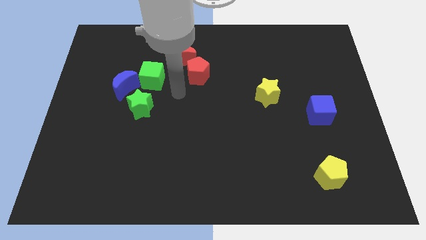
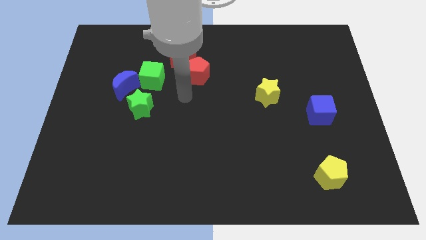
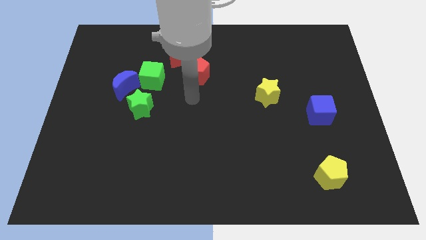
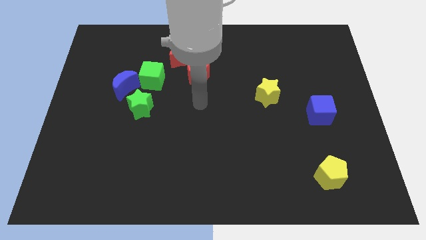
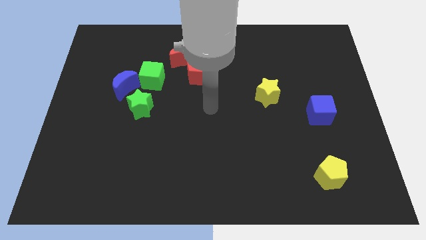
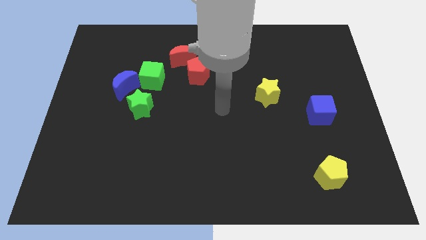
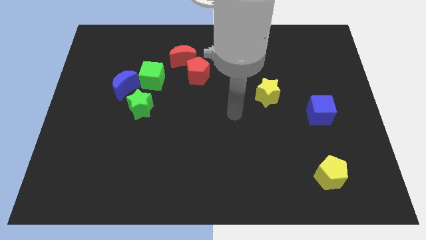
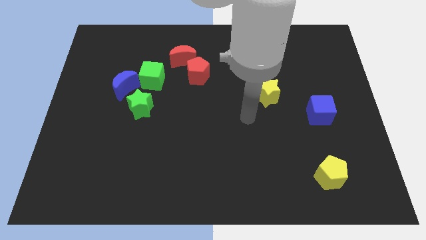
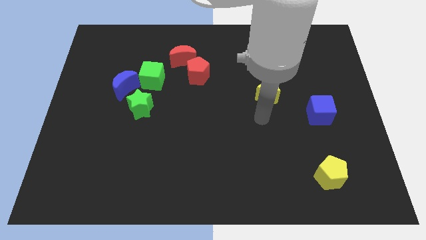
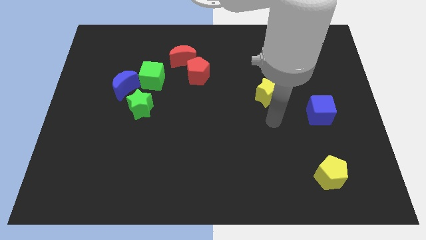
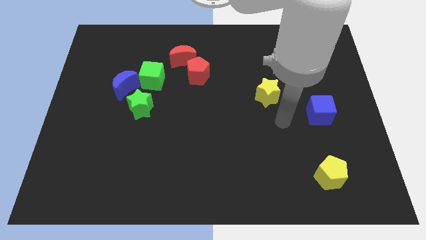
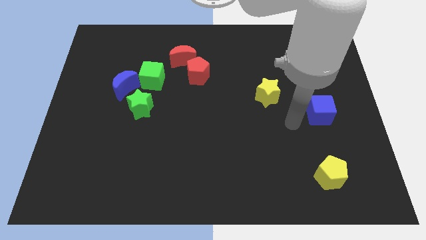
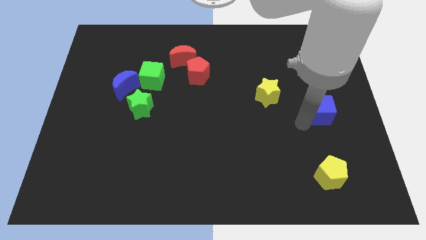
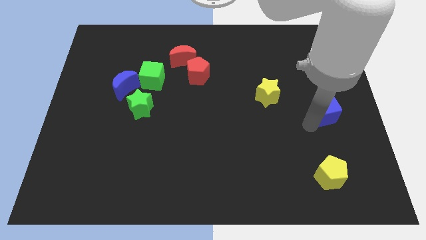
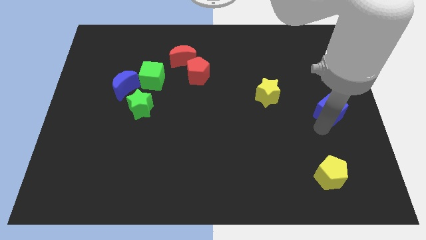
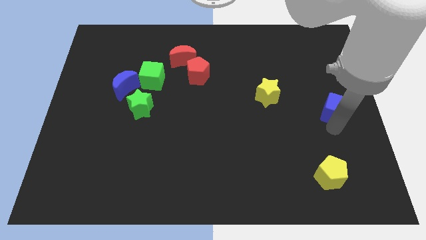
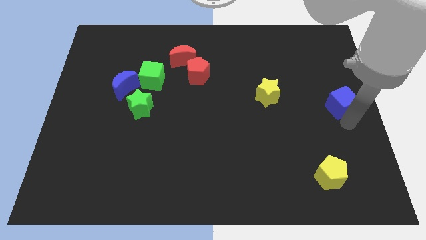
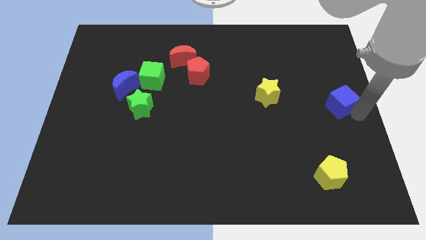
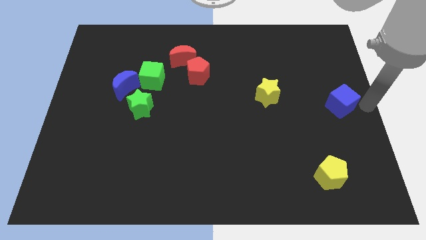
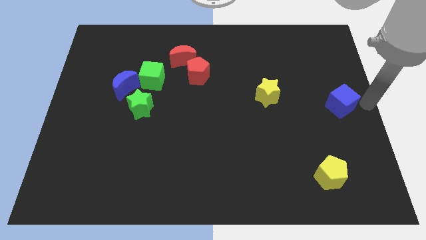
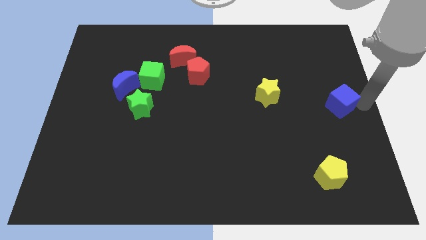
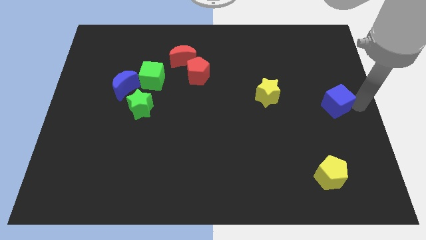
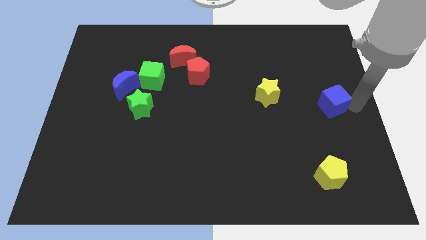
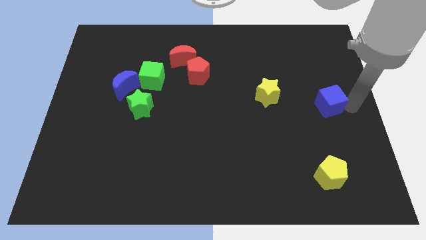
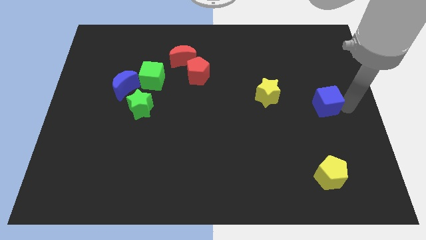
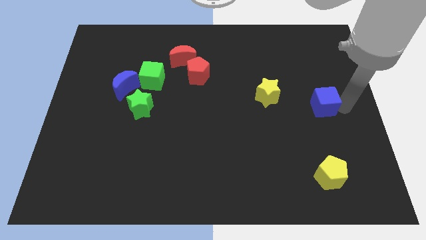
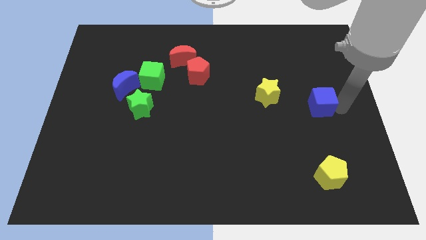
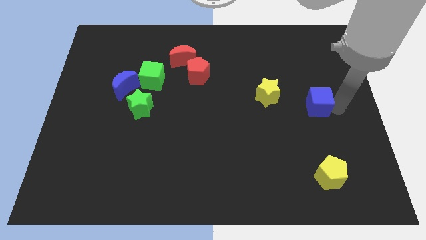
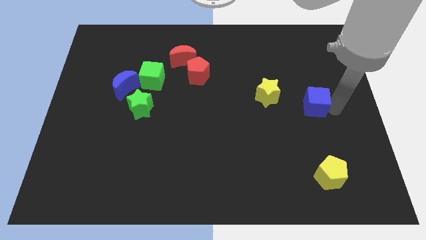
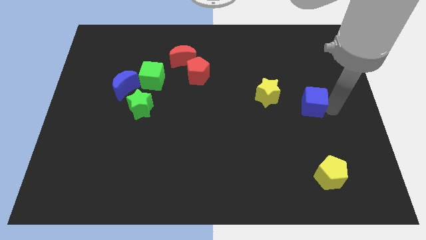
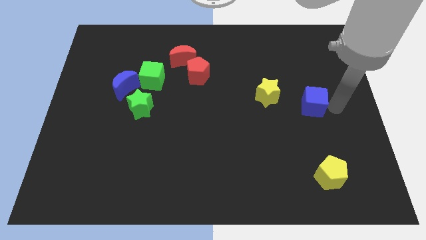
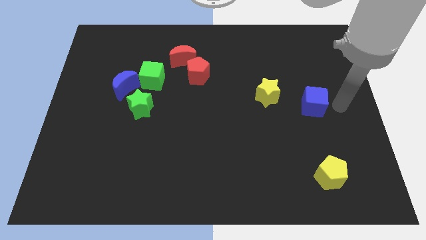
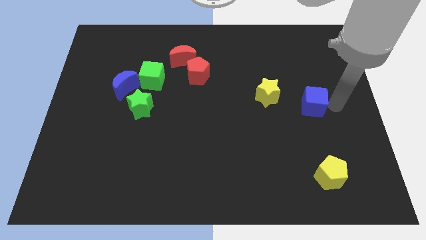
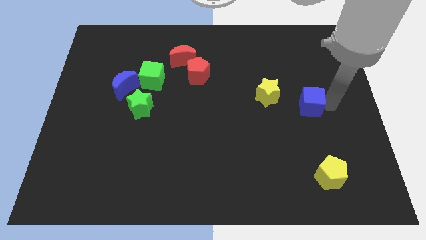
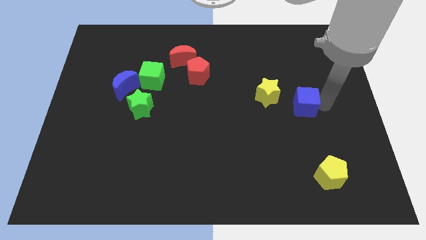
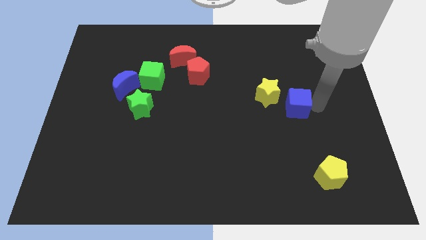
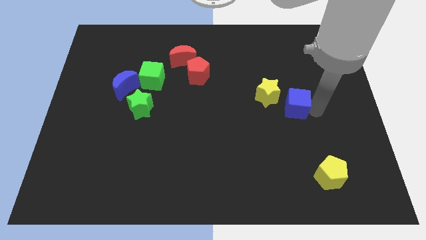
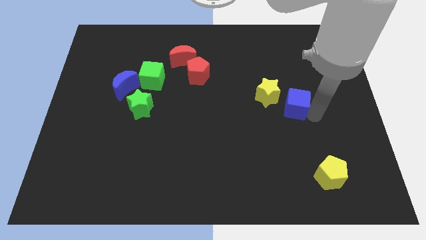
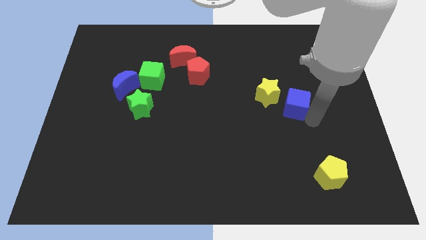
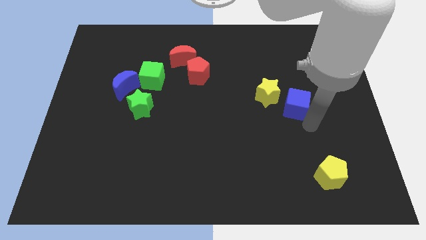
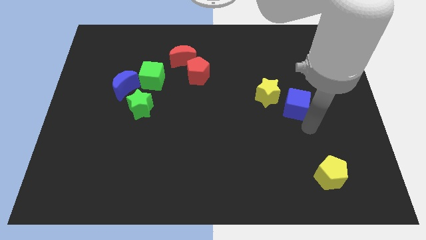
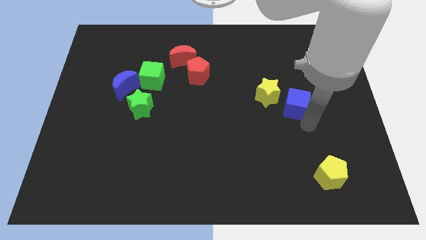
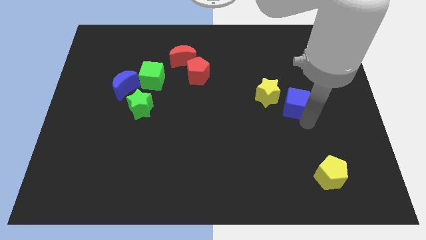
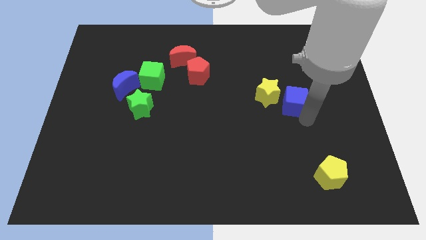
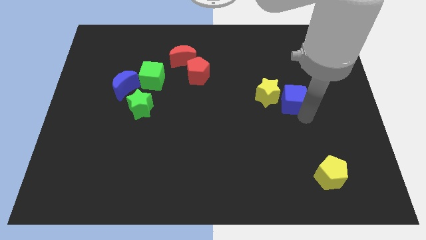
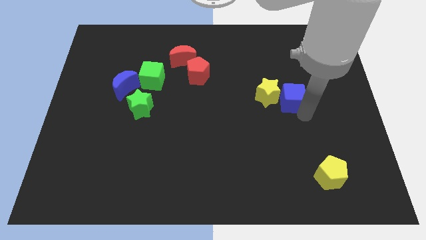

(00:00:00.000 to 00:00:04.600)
slightly push the blue cube upwards and to the left diagonally

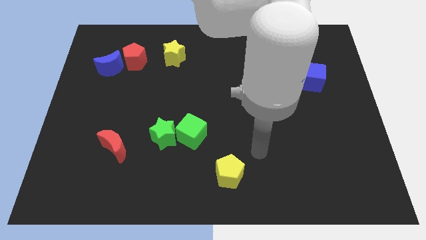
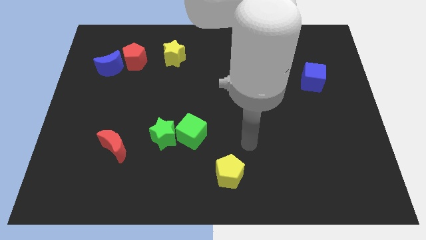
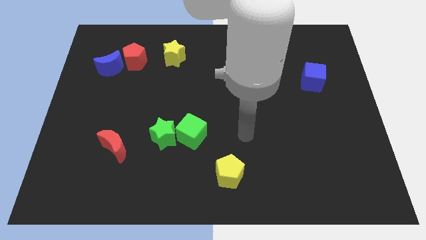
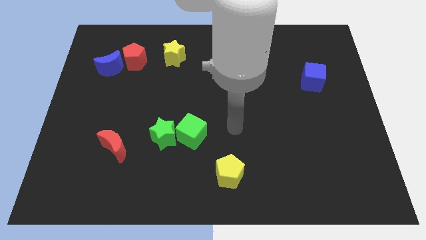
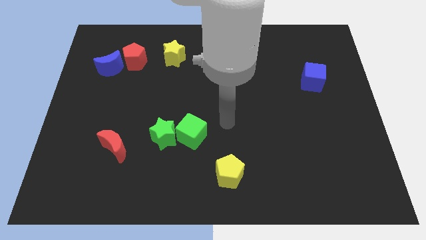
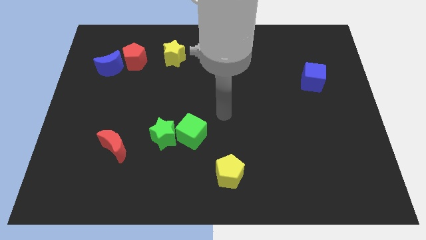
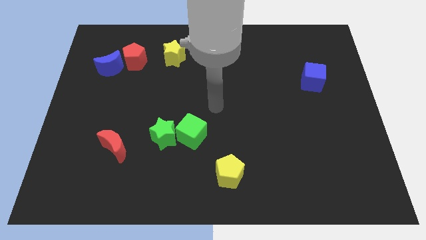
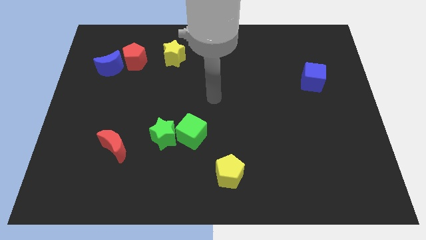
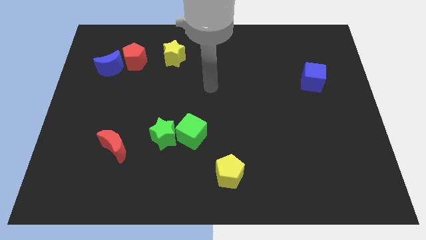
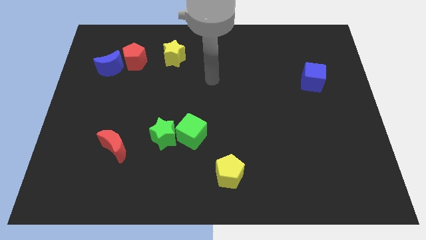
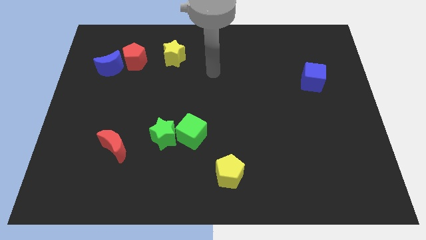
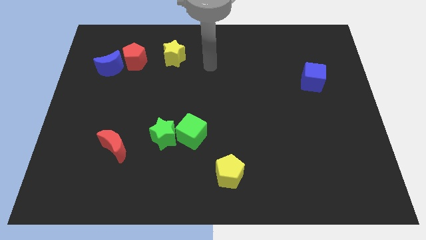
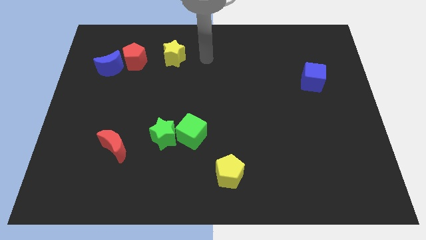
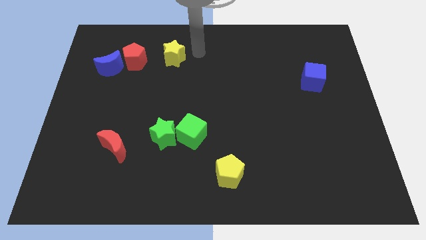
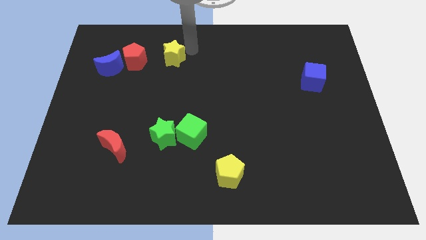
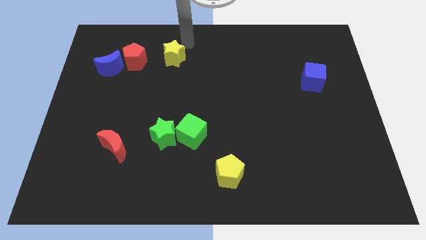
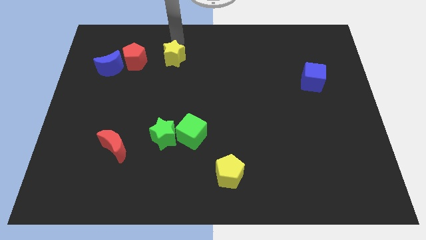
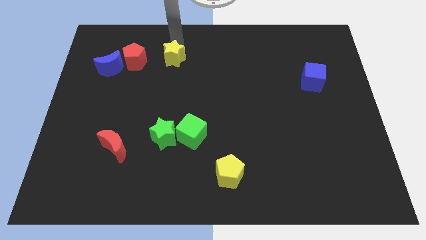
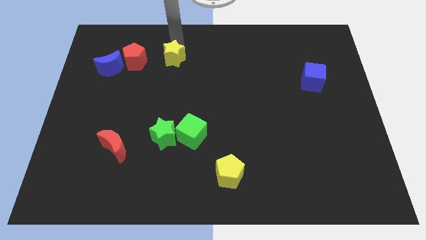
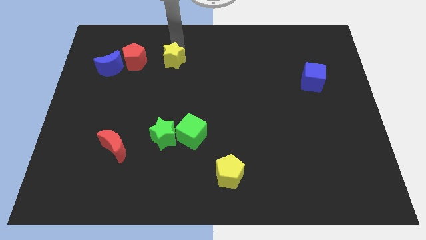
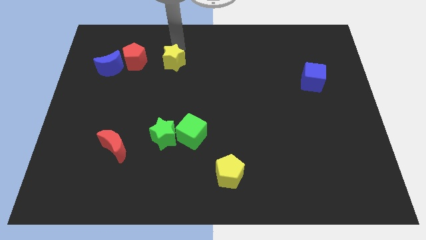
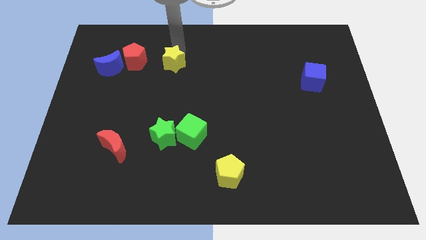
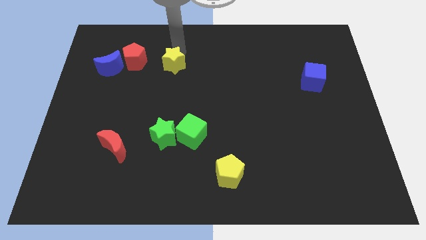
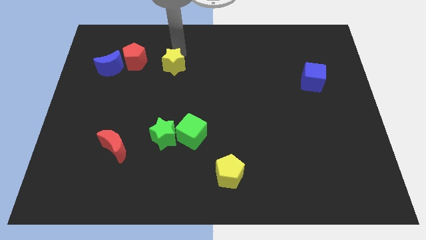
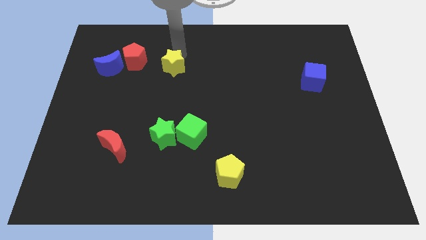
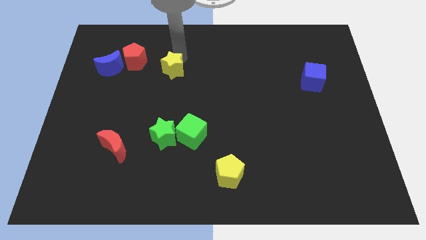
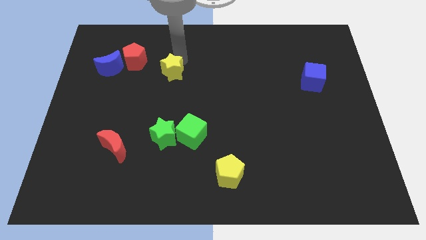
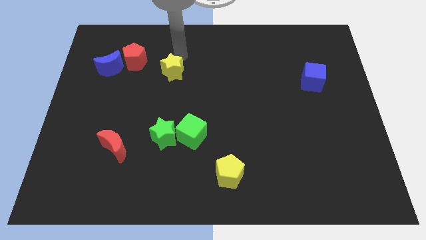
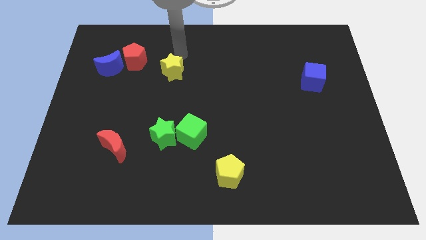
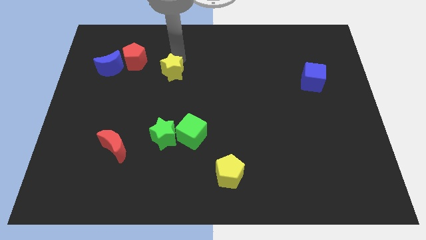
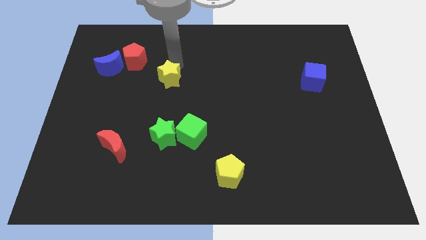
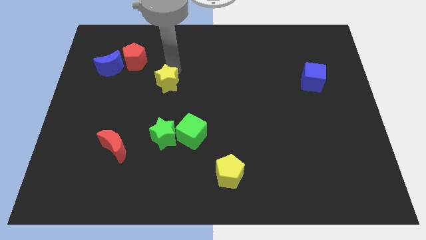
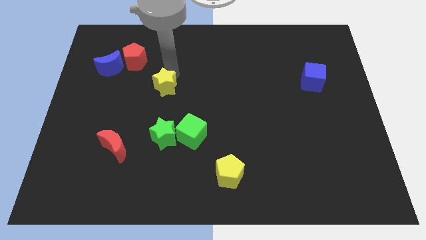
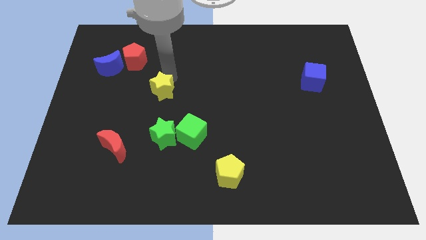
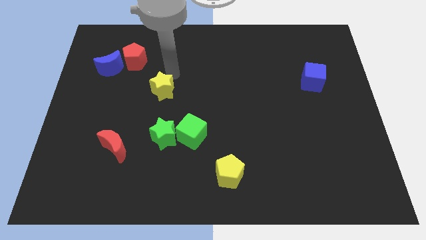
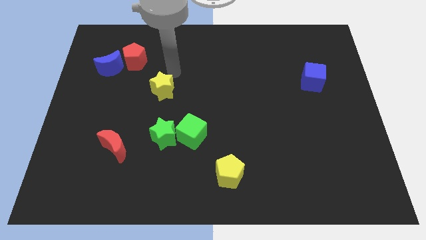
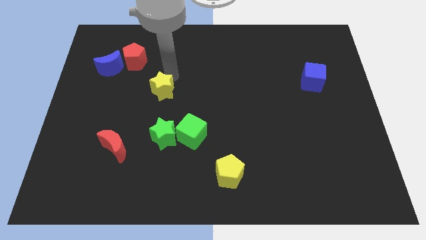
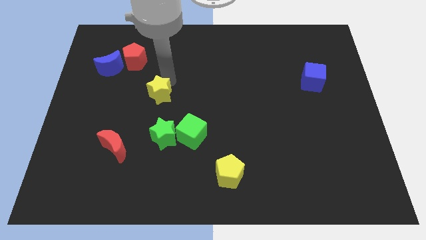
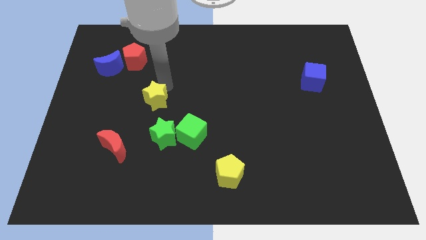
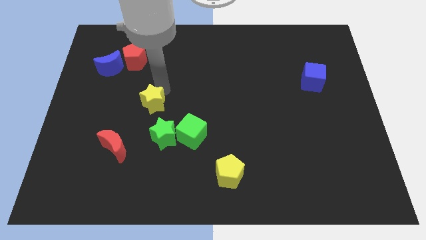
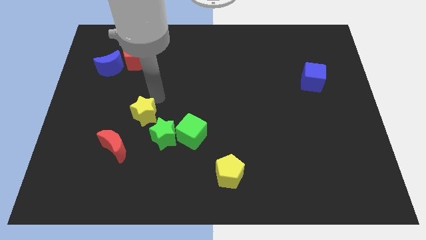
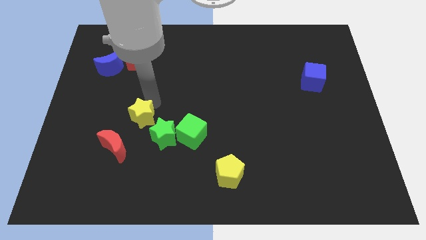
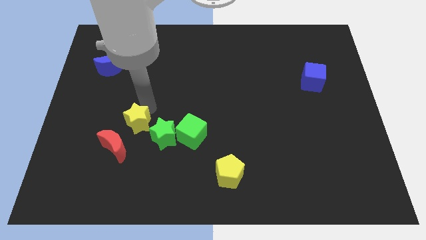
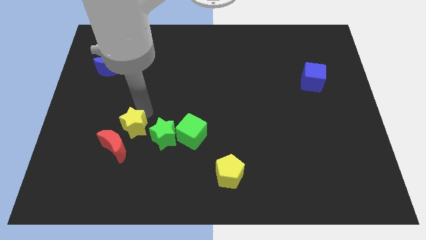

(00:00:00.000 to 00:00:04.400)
move the yellow star down
